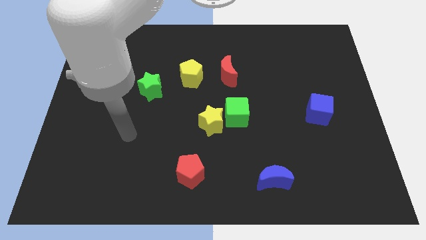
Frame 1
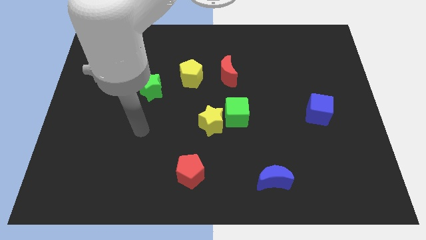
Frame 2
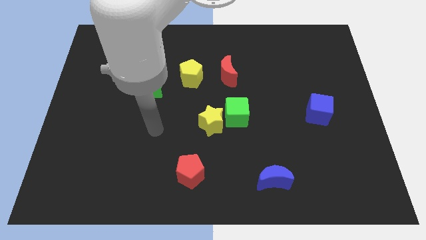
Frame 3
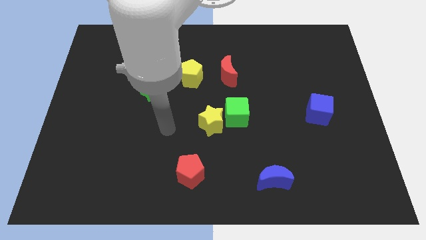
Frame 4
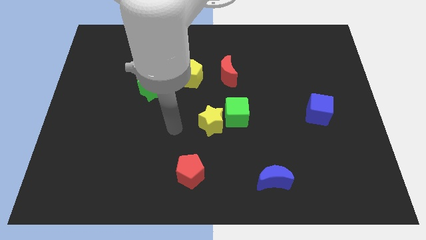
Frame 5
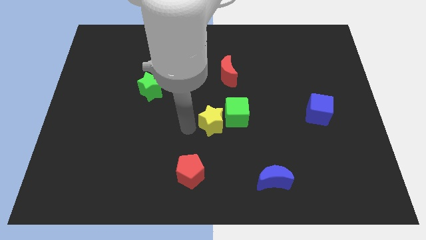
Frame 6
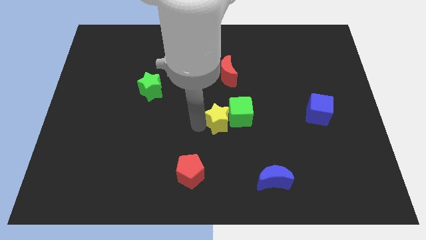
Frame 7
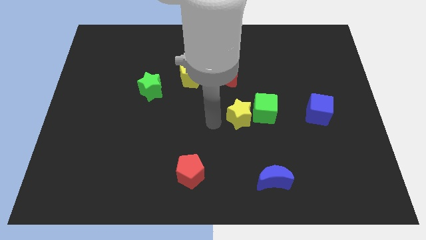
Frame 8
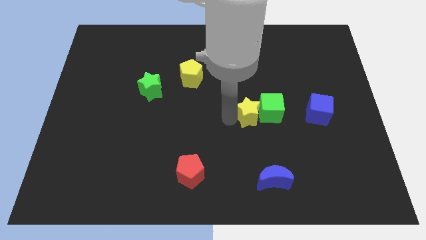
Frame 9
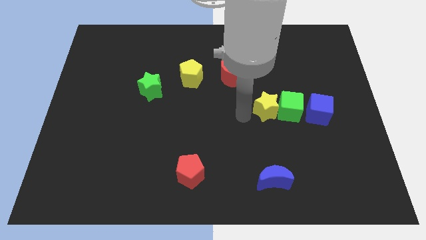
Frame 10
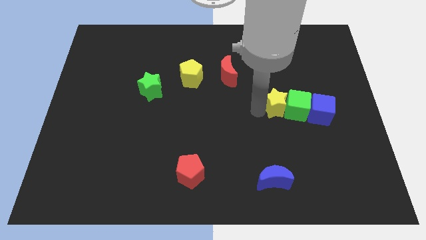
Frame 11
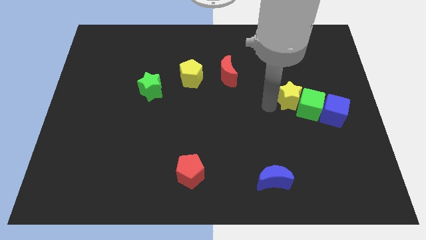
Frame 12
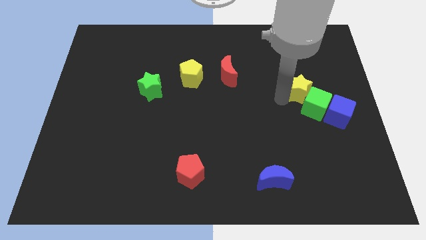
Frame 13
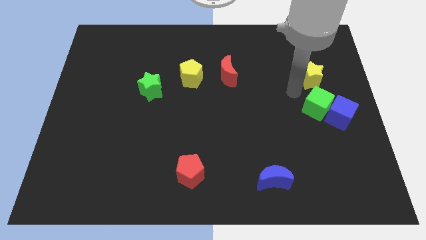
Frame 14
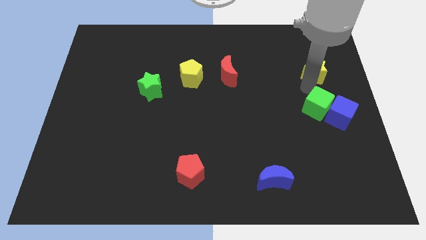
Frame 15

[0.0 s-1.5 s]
move the green cube away from the yellow star

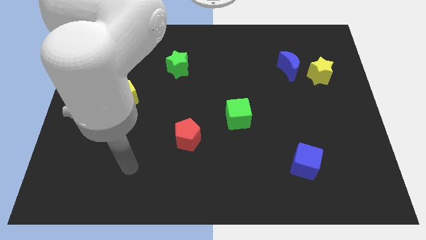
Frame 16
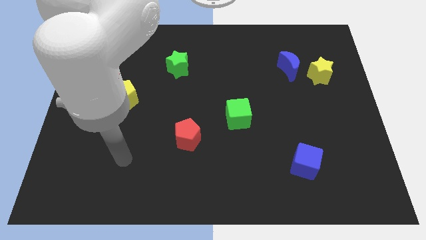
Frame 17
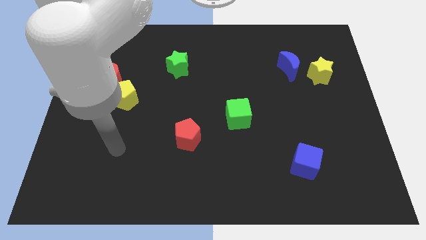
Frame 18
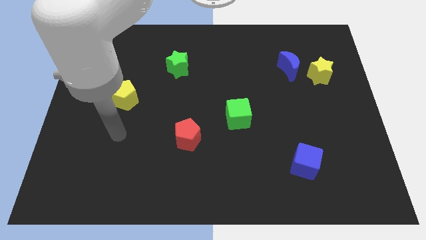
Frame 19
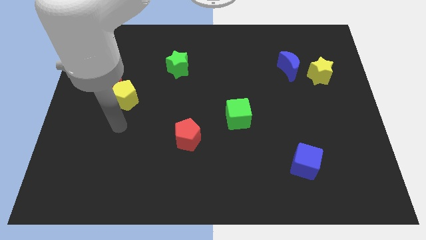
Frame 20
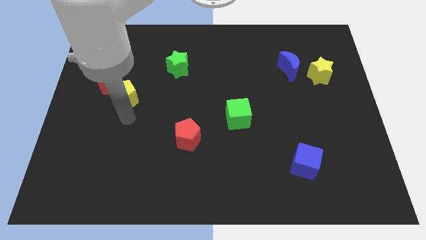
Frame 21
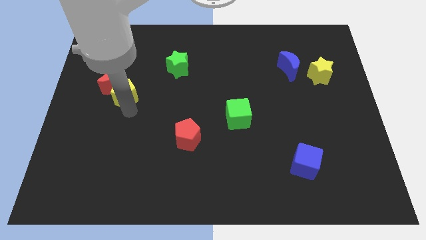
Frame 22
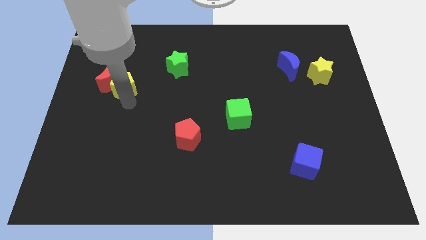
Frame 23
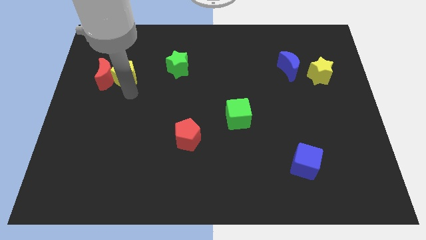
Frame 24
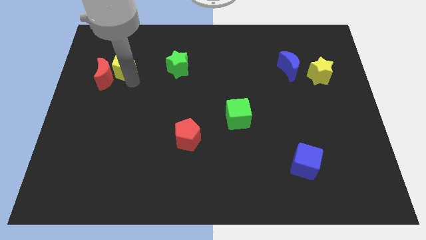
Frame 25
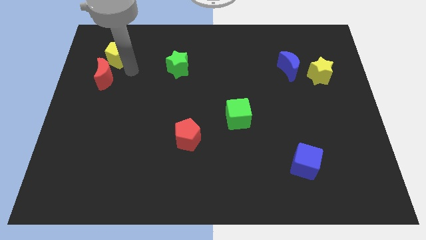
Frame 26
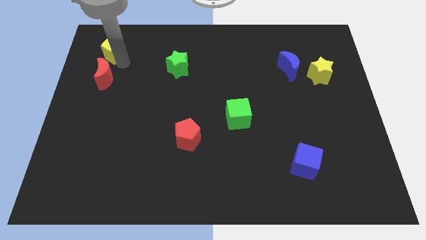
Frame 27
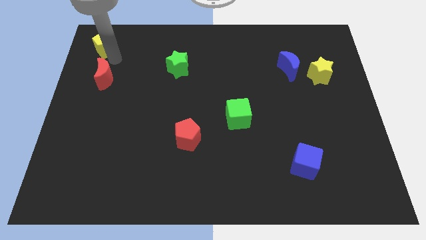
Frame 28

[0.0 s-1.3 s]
pull the red moon apart from the yellow pentagon

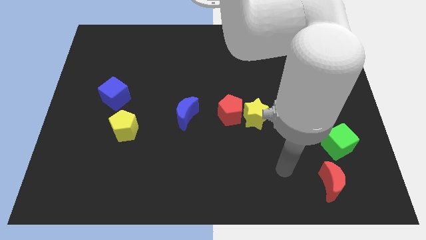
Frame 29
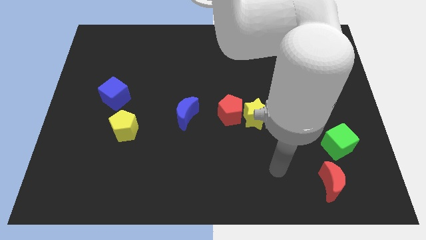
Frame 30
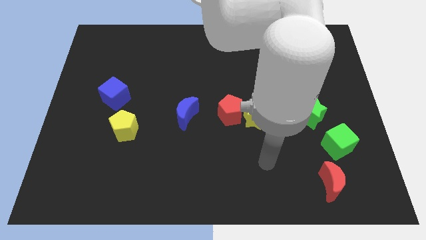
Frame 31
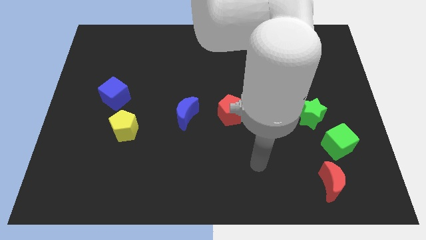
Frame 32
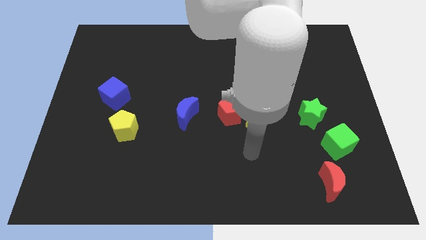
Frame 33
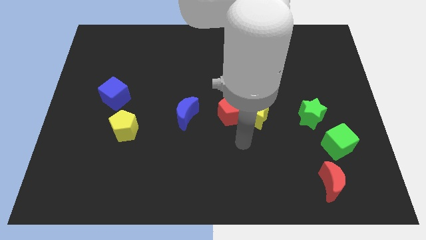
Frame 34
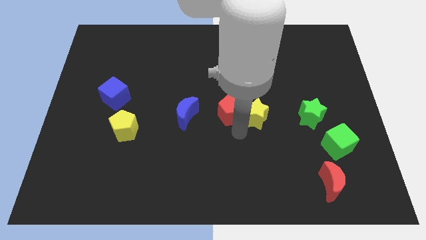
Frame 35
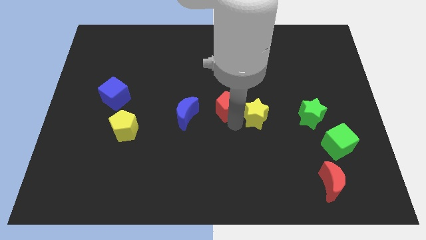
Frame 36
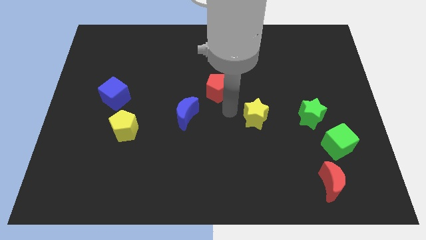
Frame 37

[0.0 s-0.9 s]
pull the yellow star apart from the red pentagon

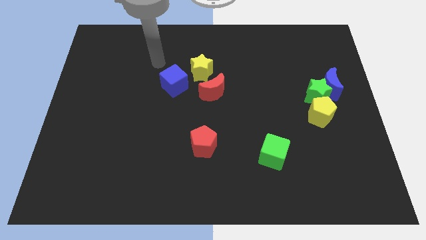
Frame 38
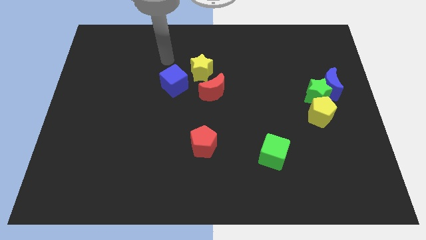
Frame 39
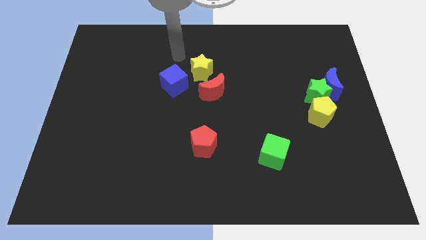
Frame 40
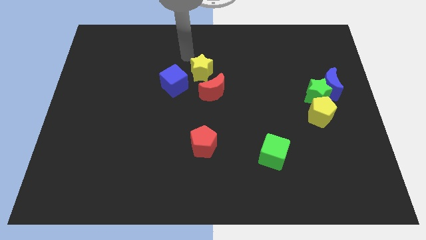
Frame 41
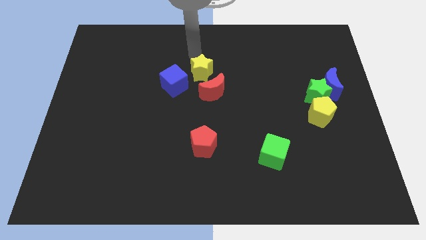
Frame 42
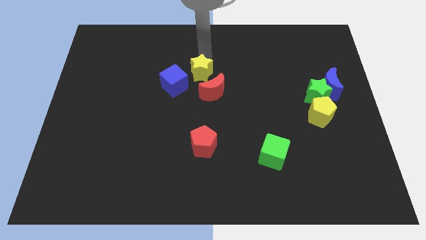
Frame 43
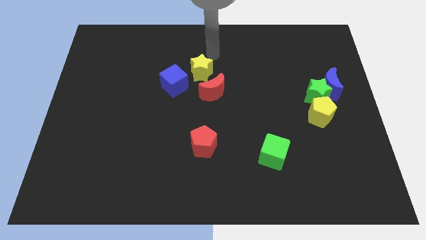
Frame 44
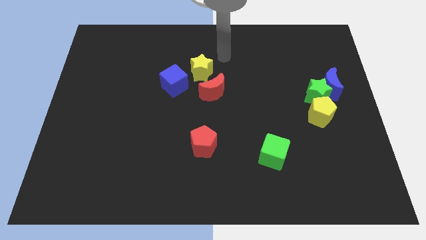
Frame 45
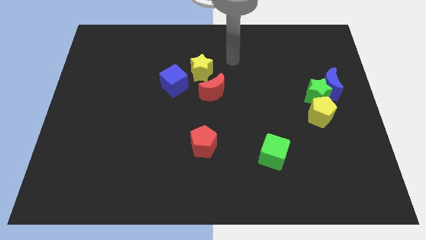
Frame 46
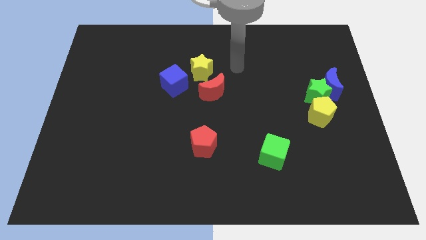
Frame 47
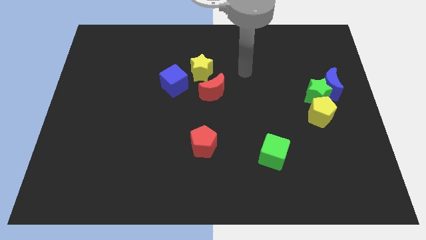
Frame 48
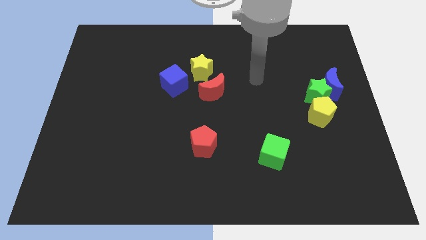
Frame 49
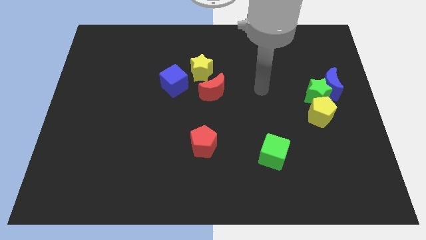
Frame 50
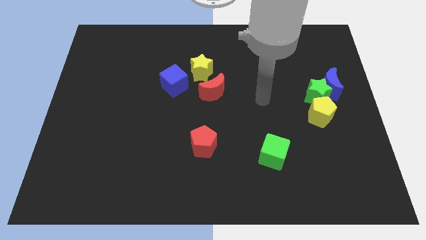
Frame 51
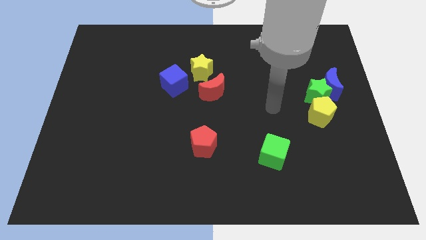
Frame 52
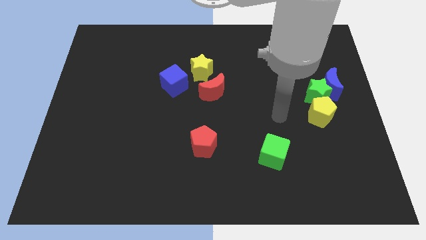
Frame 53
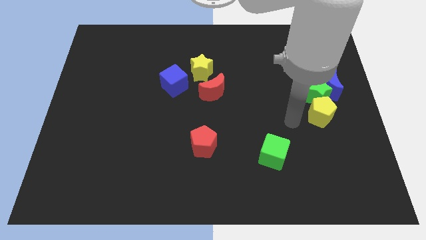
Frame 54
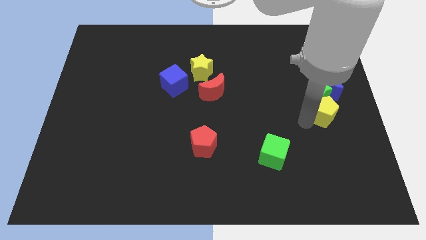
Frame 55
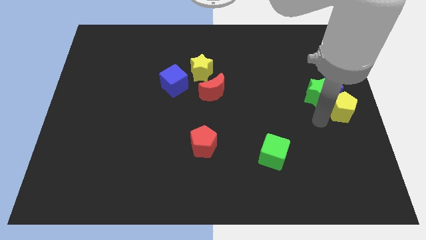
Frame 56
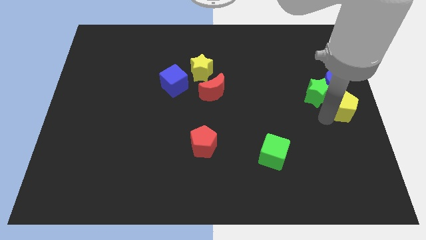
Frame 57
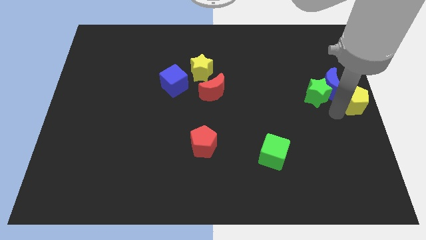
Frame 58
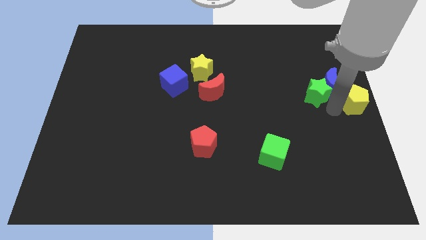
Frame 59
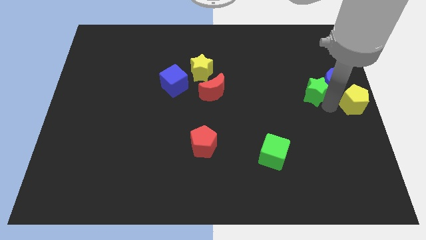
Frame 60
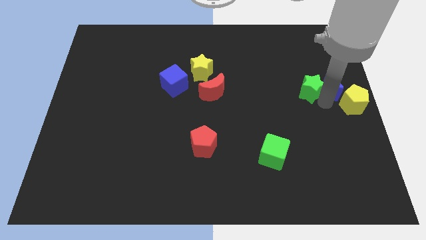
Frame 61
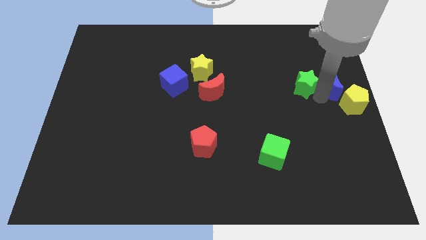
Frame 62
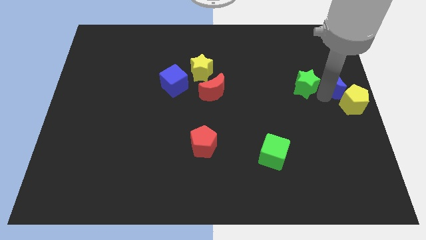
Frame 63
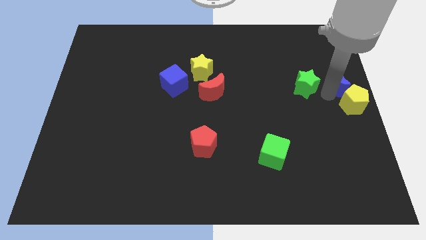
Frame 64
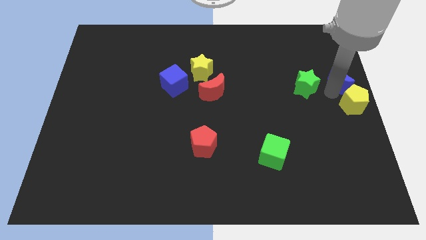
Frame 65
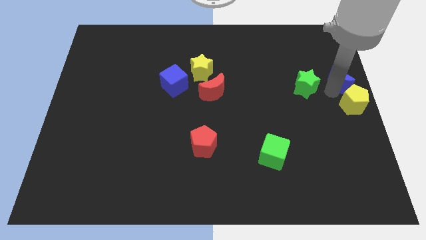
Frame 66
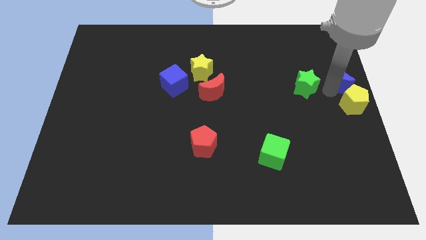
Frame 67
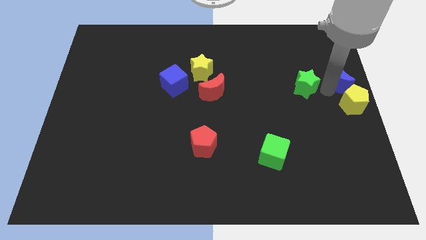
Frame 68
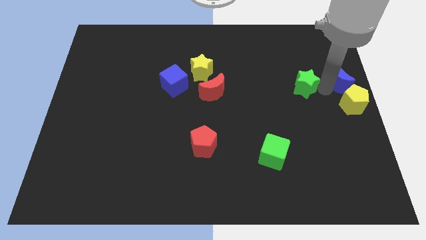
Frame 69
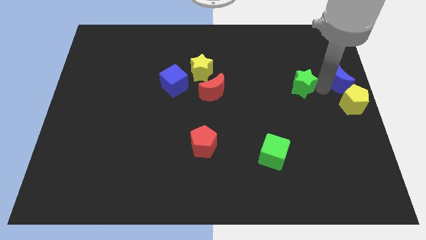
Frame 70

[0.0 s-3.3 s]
pull the green star apart from the blue moon and yellow pentagon

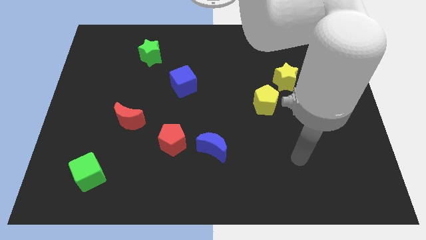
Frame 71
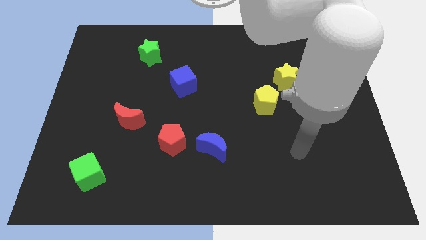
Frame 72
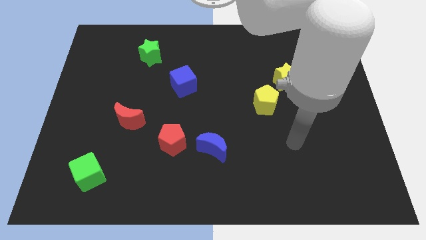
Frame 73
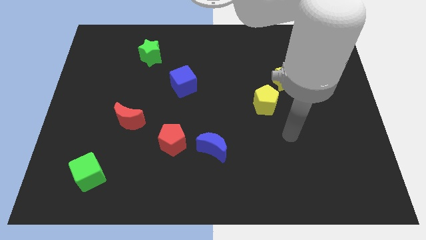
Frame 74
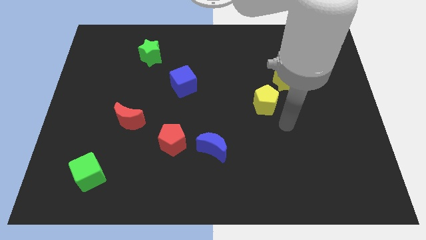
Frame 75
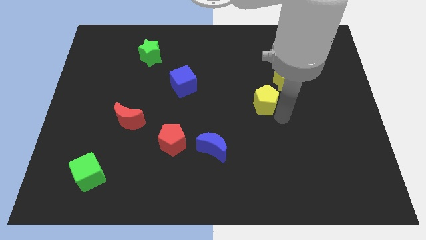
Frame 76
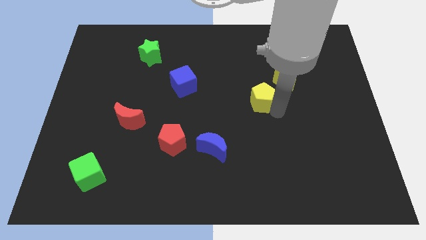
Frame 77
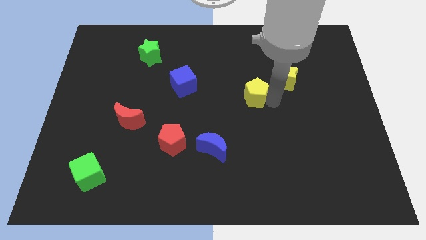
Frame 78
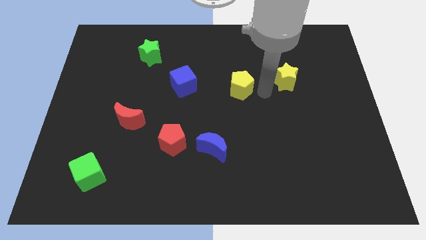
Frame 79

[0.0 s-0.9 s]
move the yellow star away from the yellow pentagon

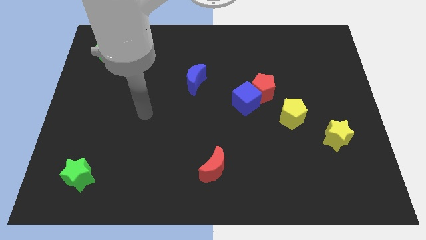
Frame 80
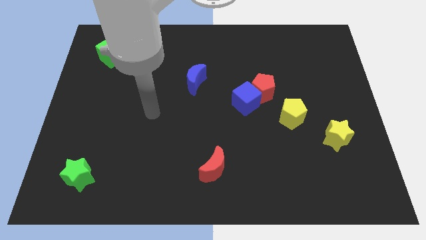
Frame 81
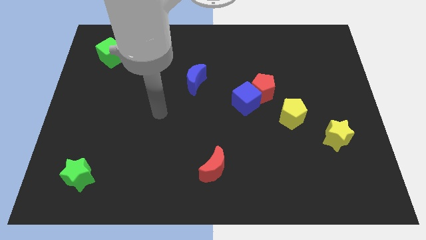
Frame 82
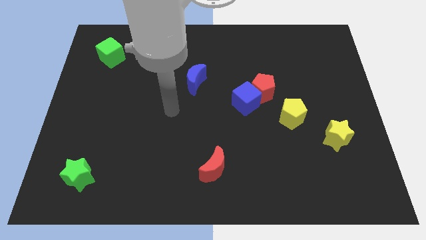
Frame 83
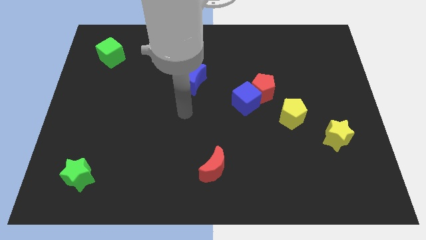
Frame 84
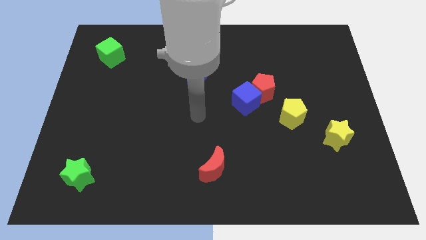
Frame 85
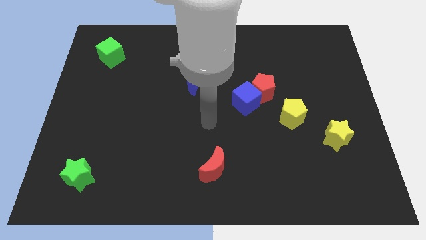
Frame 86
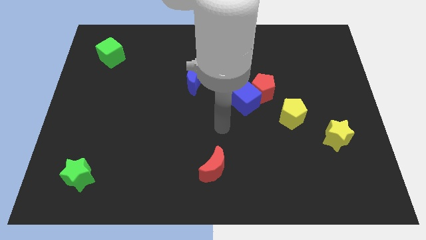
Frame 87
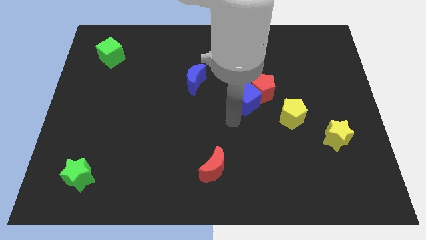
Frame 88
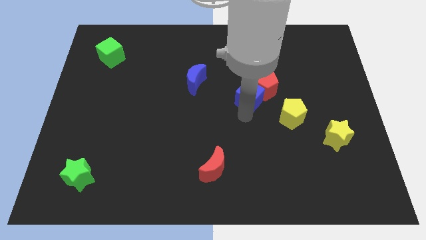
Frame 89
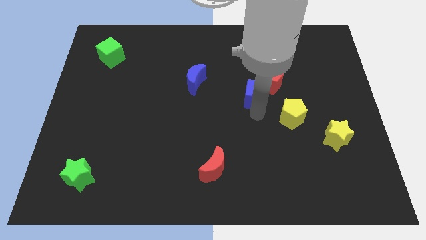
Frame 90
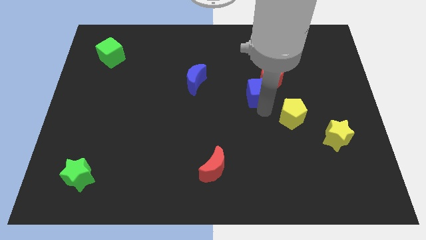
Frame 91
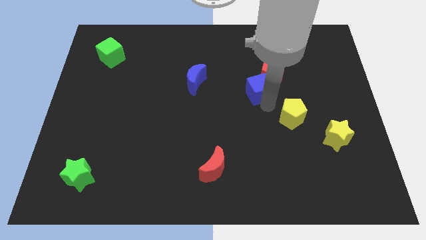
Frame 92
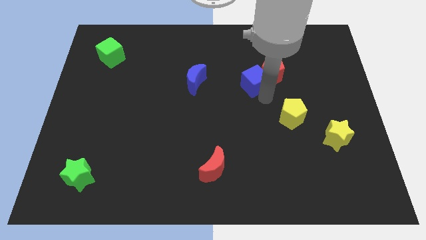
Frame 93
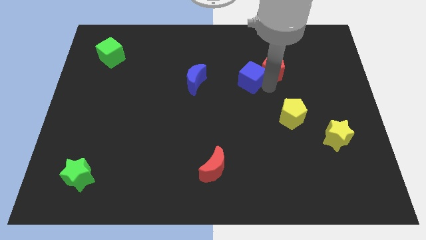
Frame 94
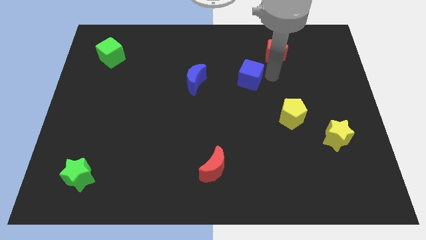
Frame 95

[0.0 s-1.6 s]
move the blue cube away from the red pentagon

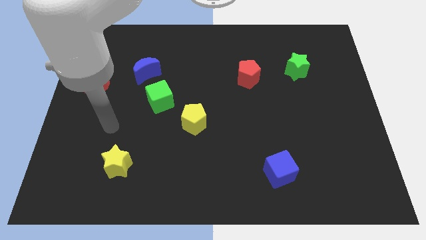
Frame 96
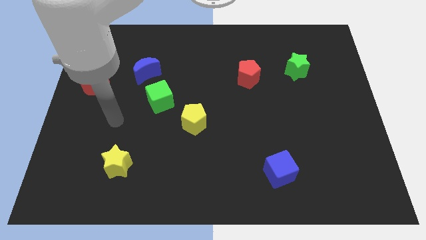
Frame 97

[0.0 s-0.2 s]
pull the blue moon apart from the green cube
